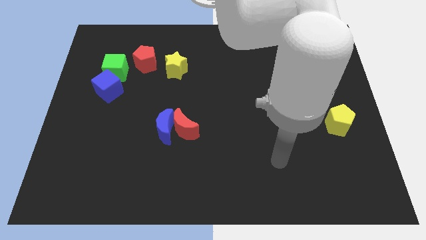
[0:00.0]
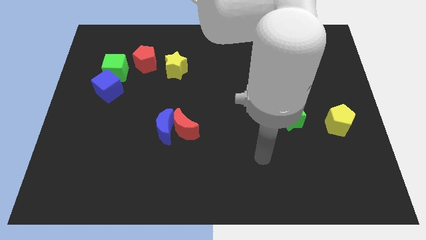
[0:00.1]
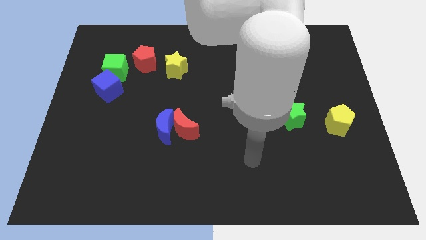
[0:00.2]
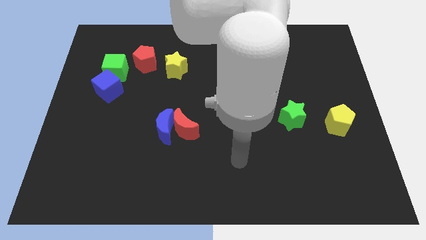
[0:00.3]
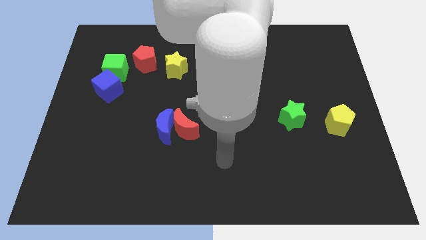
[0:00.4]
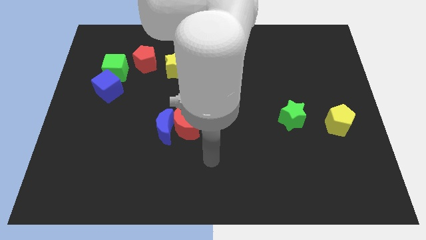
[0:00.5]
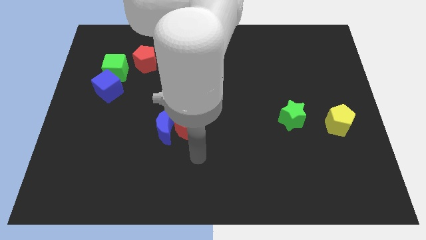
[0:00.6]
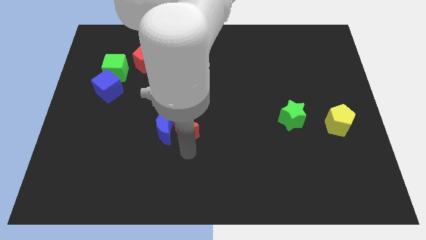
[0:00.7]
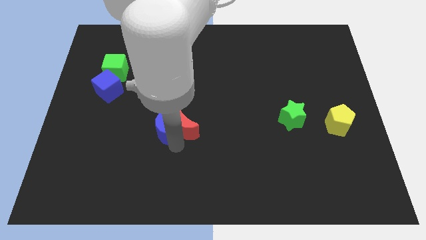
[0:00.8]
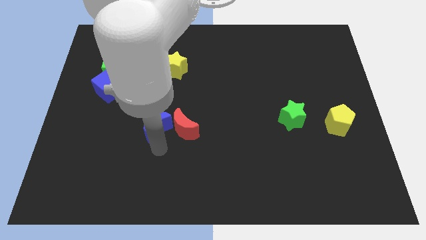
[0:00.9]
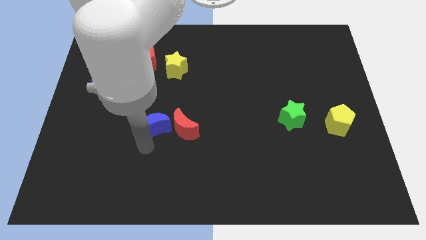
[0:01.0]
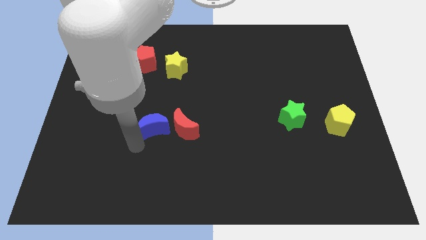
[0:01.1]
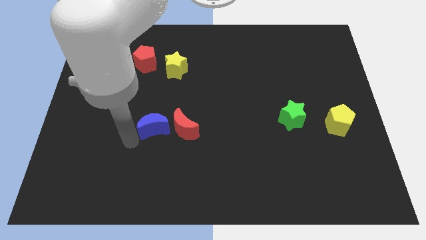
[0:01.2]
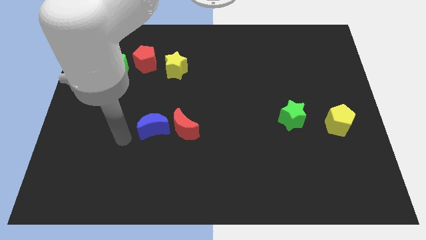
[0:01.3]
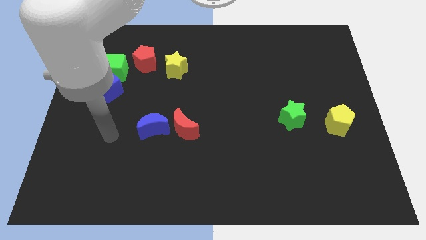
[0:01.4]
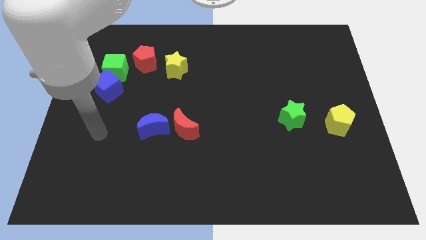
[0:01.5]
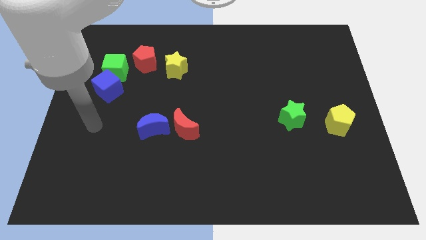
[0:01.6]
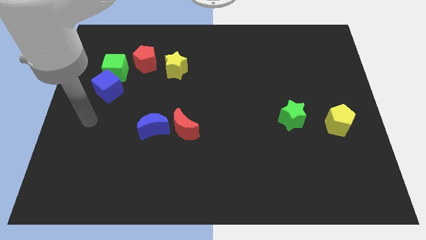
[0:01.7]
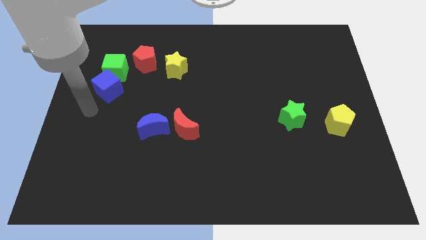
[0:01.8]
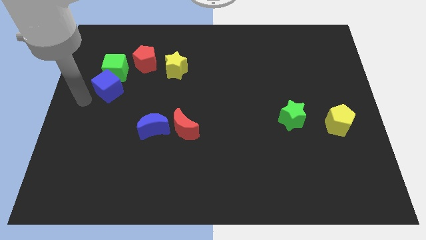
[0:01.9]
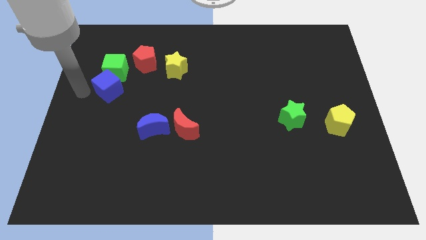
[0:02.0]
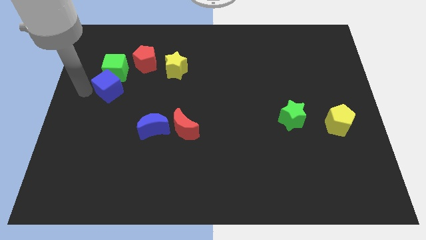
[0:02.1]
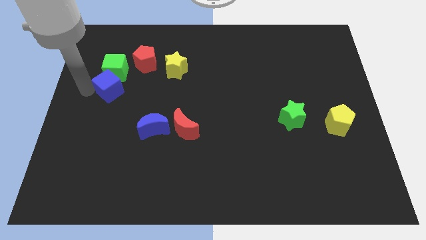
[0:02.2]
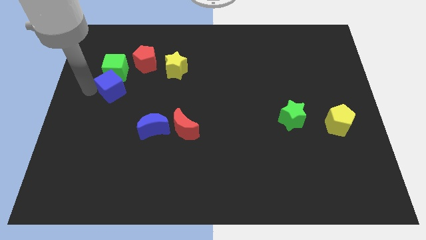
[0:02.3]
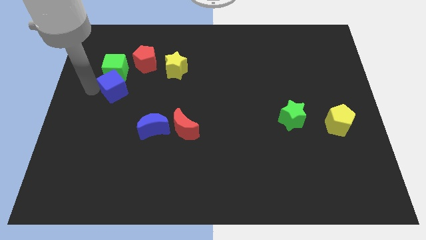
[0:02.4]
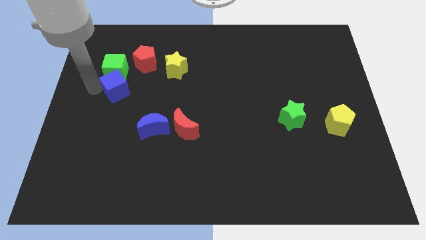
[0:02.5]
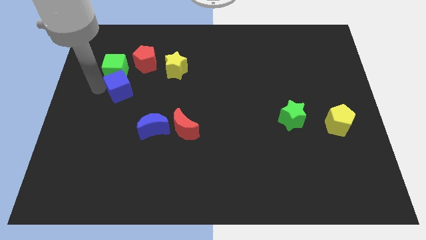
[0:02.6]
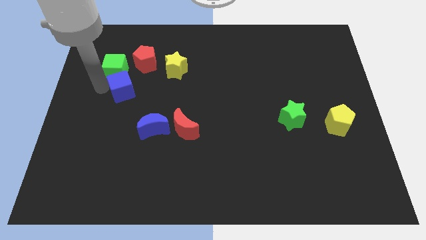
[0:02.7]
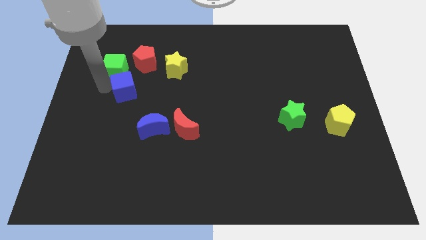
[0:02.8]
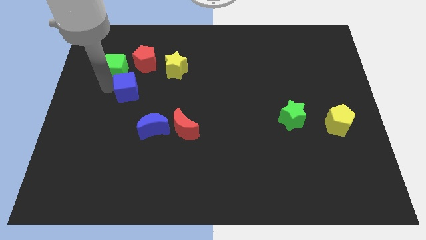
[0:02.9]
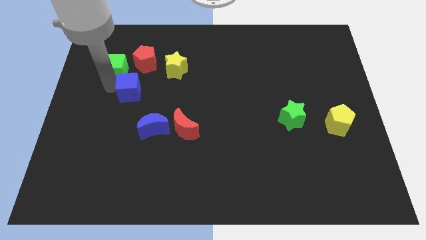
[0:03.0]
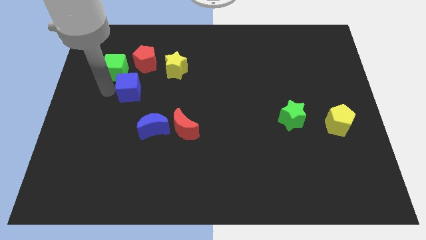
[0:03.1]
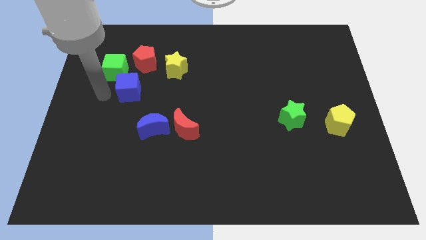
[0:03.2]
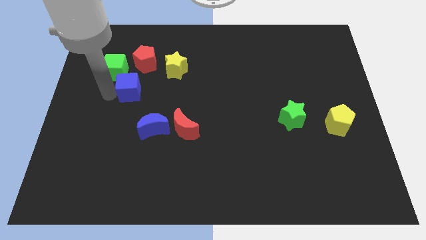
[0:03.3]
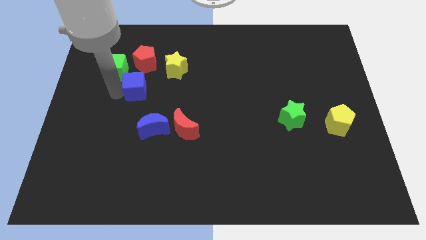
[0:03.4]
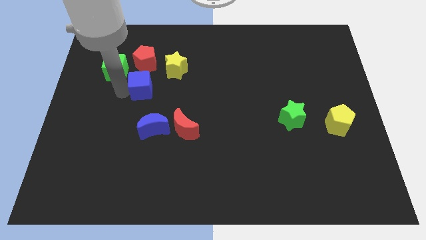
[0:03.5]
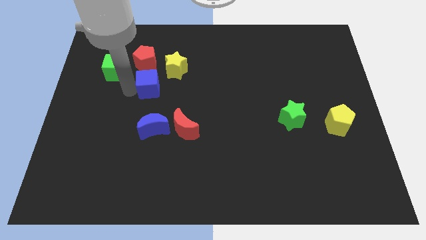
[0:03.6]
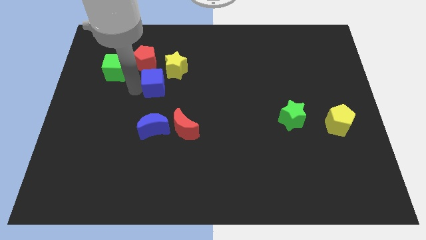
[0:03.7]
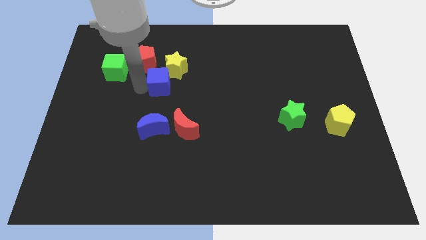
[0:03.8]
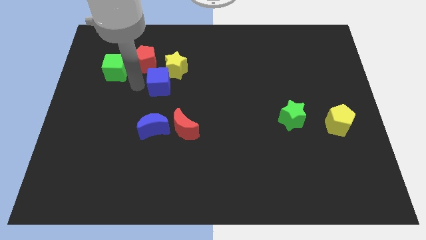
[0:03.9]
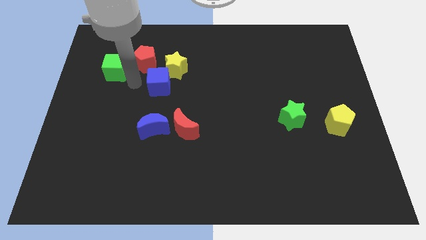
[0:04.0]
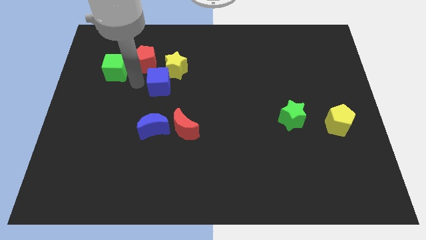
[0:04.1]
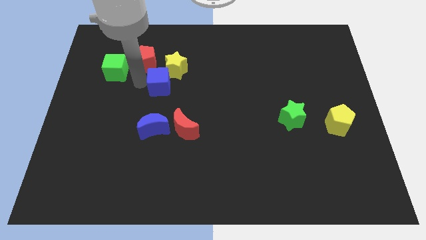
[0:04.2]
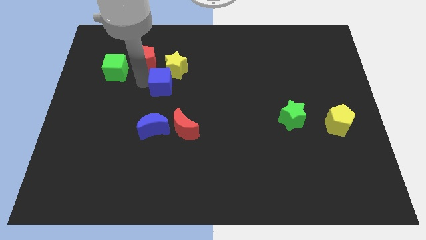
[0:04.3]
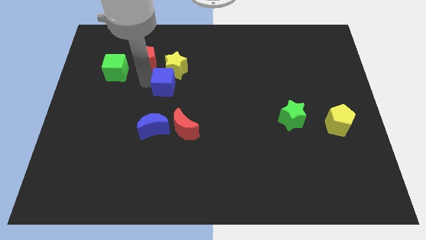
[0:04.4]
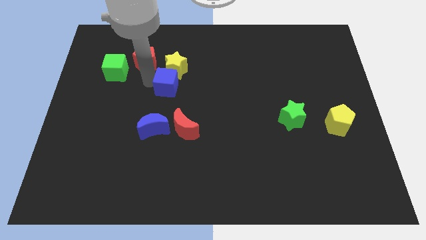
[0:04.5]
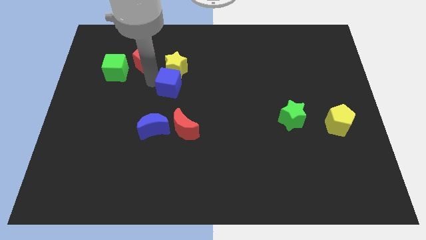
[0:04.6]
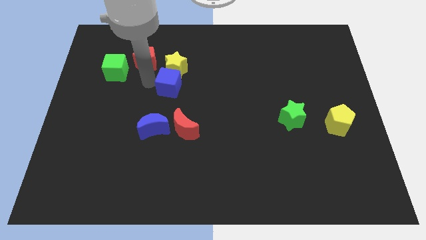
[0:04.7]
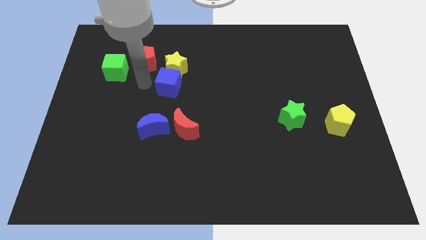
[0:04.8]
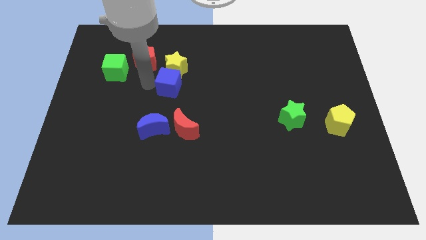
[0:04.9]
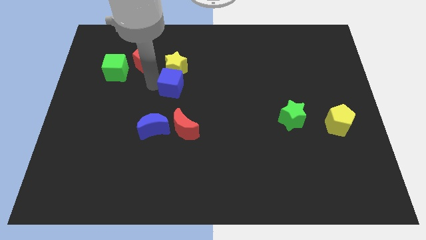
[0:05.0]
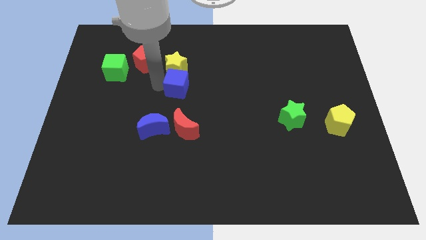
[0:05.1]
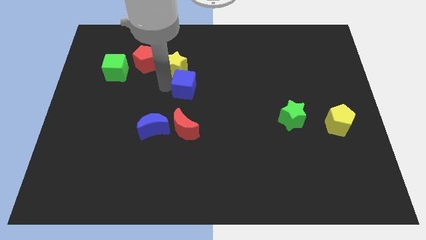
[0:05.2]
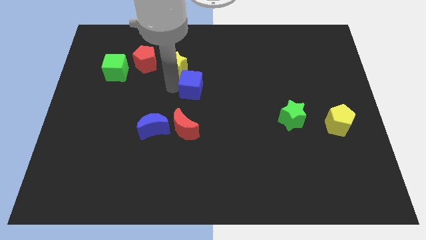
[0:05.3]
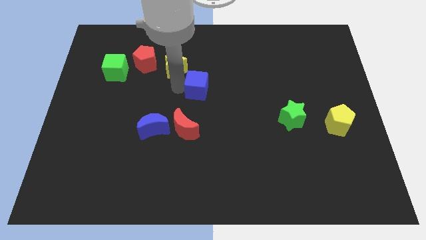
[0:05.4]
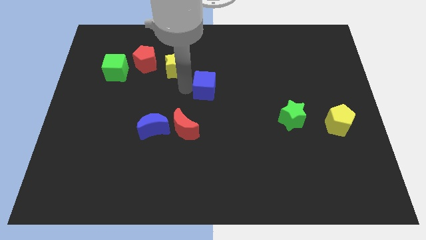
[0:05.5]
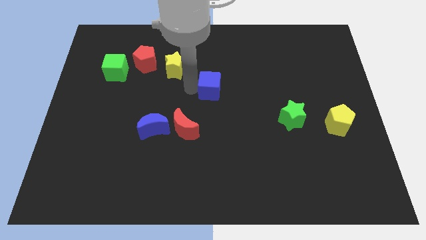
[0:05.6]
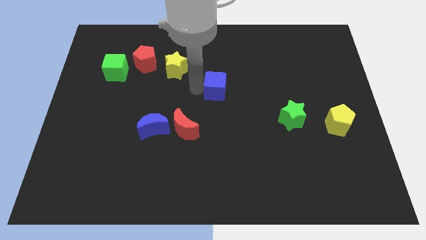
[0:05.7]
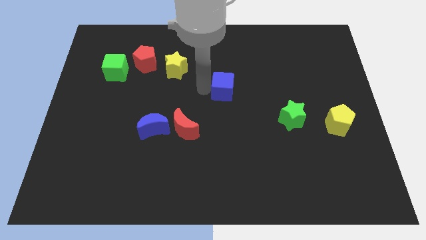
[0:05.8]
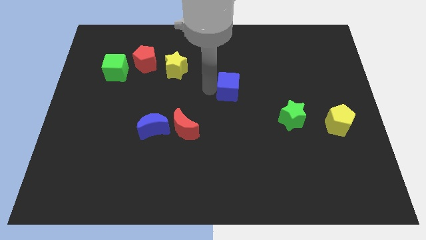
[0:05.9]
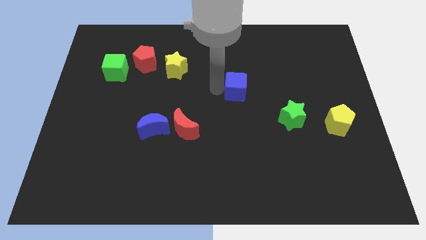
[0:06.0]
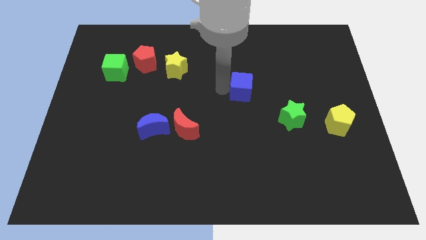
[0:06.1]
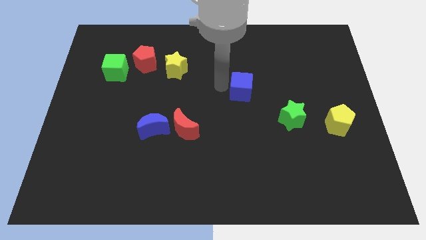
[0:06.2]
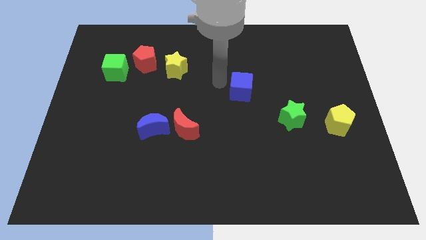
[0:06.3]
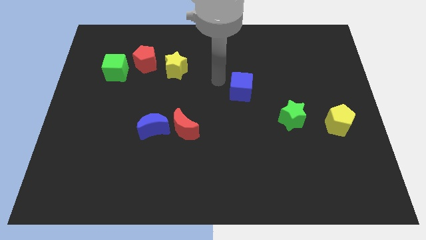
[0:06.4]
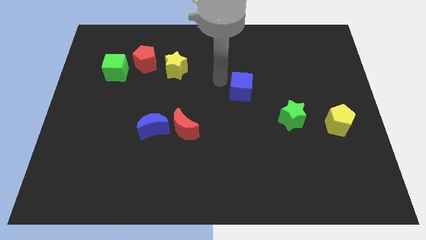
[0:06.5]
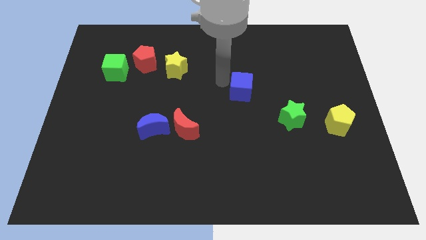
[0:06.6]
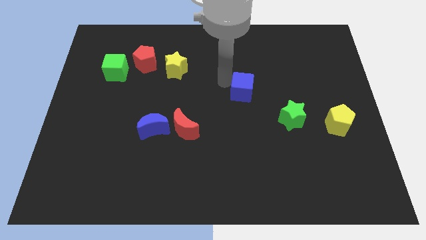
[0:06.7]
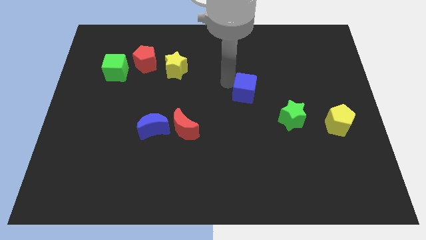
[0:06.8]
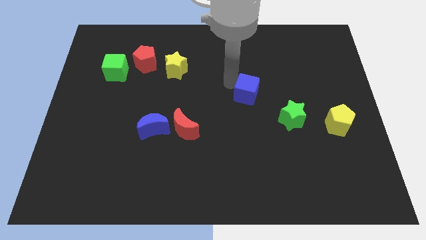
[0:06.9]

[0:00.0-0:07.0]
put the blue cube to the top left side of the green star

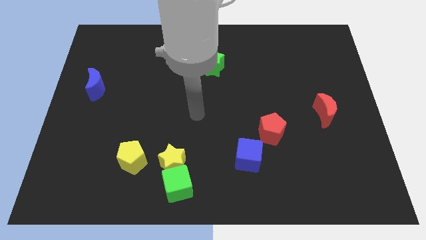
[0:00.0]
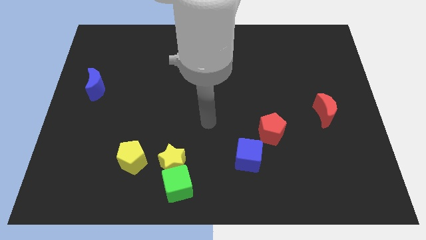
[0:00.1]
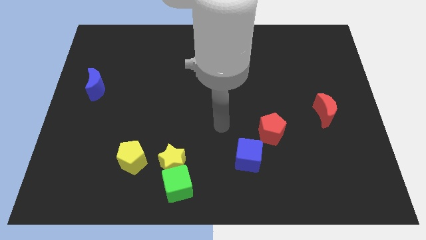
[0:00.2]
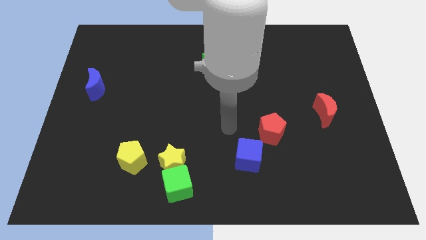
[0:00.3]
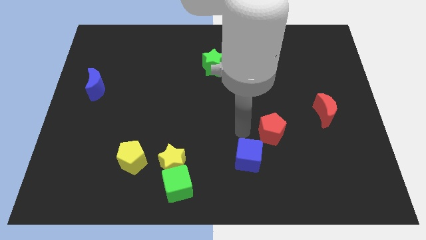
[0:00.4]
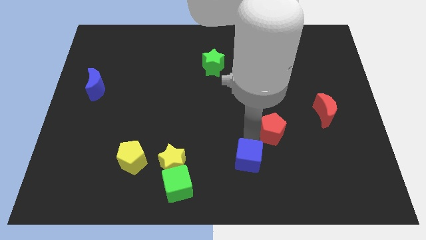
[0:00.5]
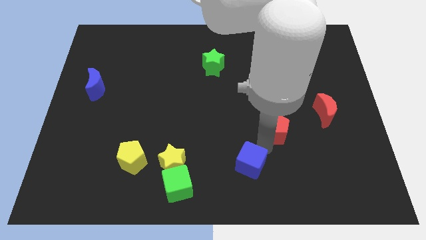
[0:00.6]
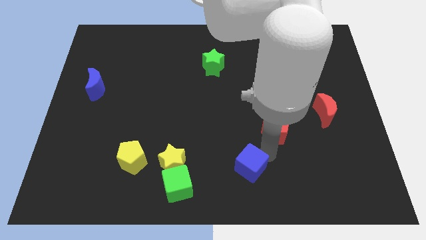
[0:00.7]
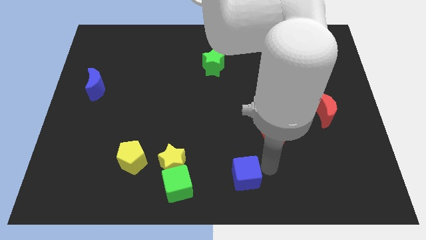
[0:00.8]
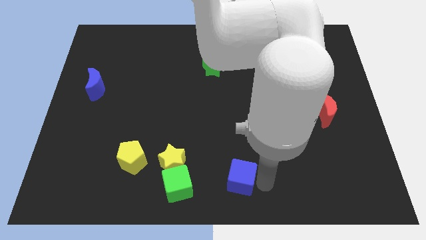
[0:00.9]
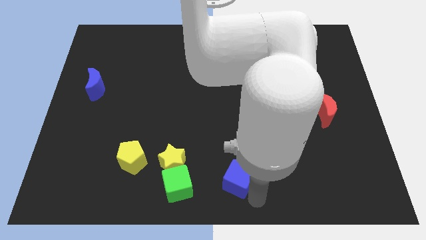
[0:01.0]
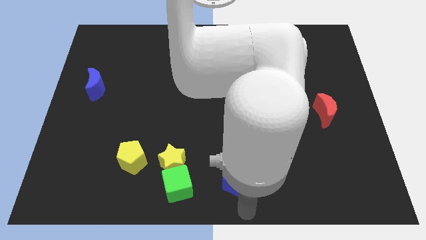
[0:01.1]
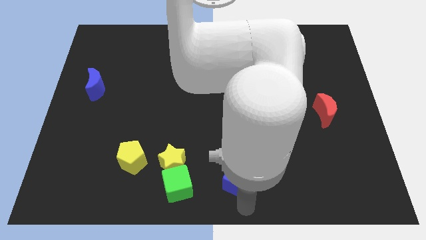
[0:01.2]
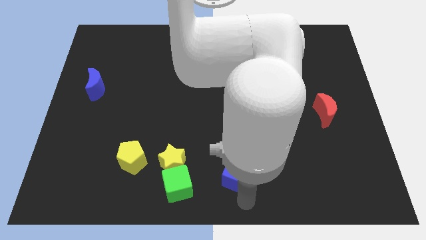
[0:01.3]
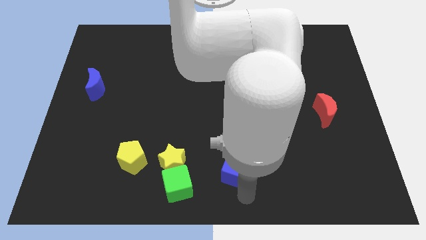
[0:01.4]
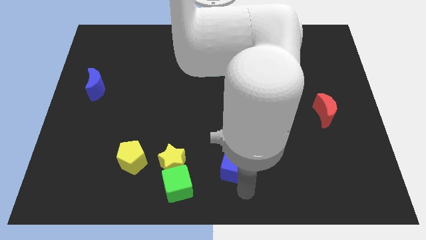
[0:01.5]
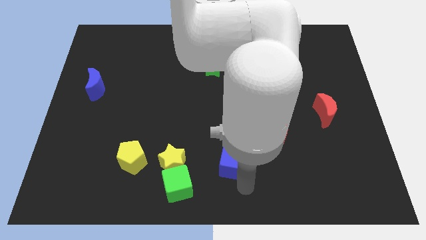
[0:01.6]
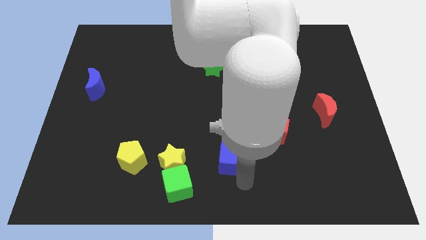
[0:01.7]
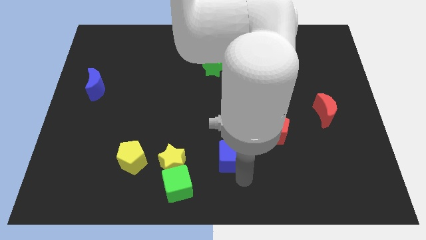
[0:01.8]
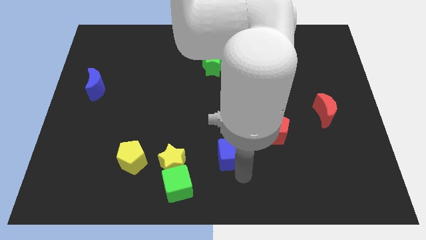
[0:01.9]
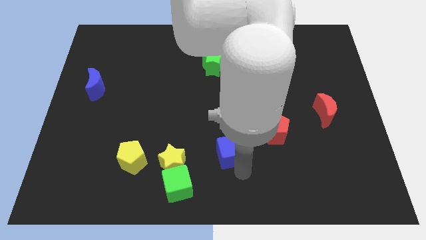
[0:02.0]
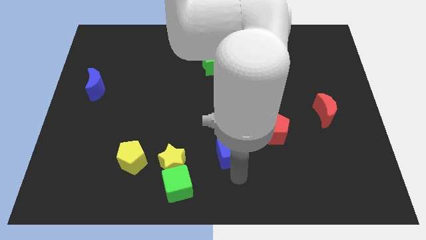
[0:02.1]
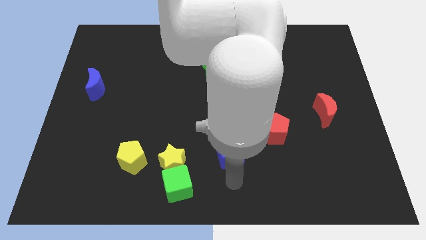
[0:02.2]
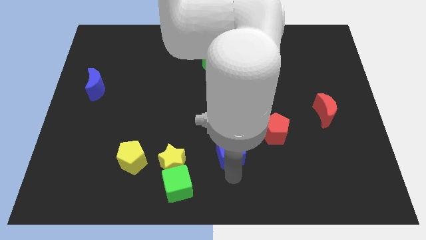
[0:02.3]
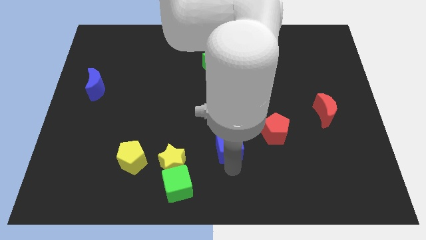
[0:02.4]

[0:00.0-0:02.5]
put the blue cube to the left of the red pentagon
